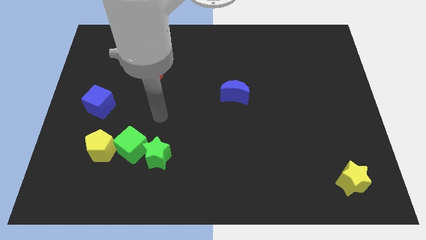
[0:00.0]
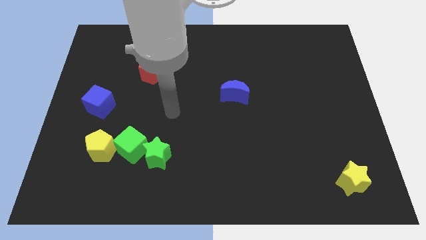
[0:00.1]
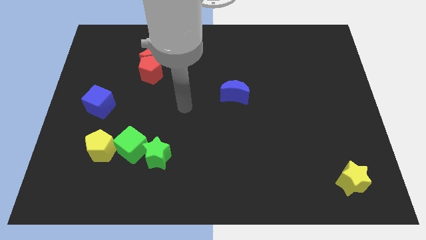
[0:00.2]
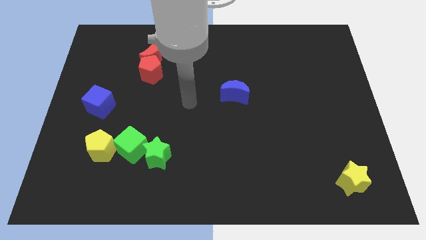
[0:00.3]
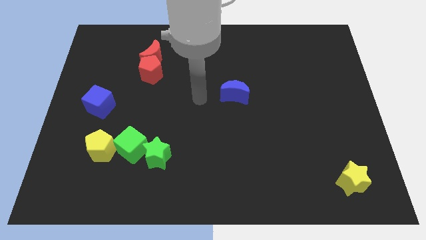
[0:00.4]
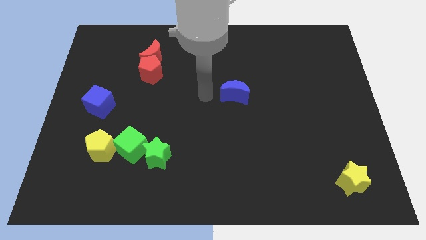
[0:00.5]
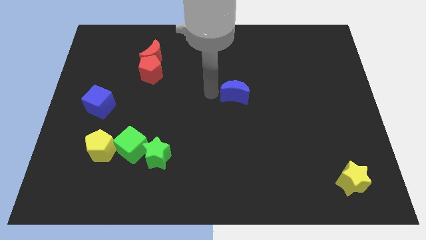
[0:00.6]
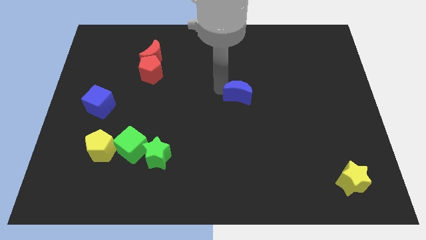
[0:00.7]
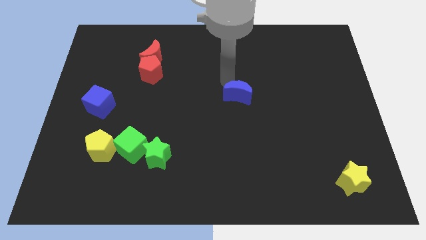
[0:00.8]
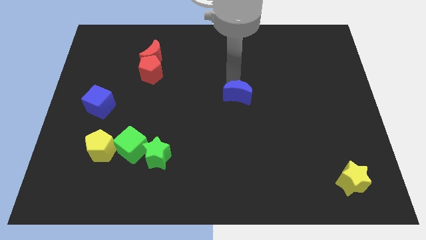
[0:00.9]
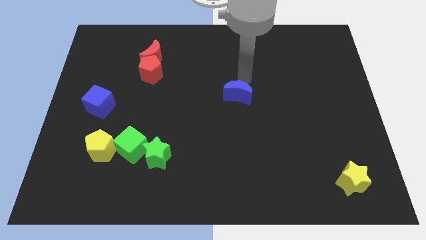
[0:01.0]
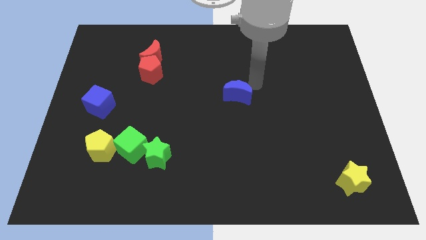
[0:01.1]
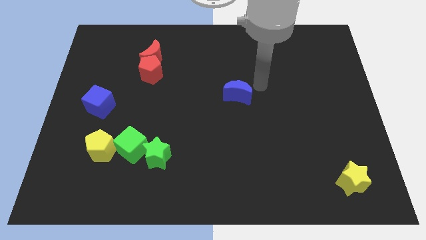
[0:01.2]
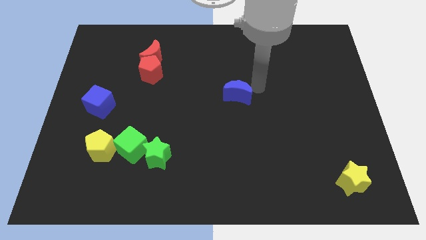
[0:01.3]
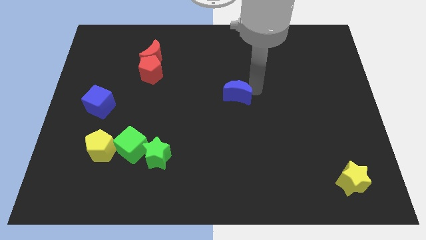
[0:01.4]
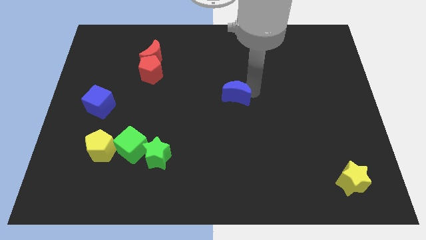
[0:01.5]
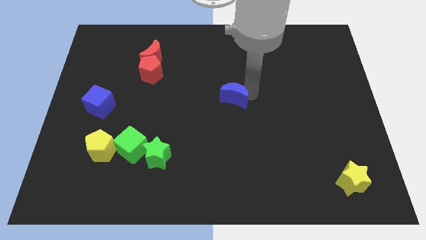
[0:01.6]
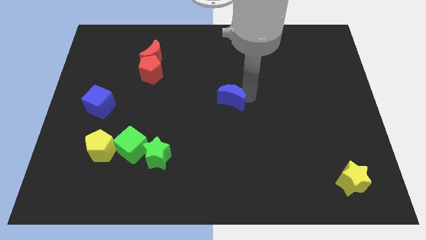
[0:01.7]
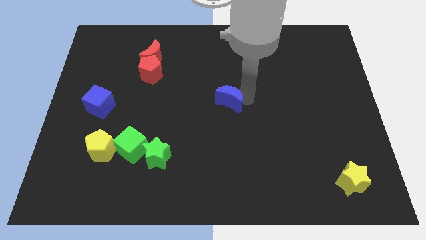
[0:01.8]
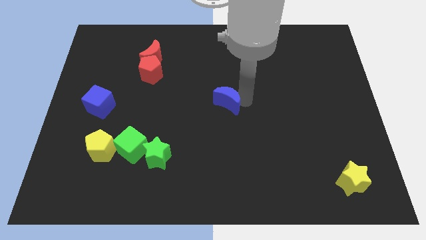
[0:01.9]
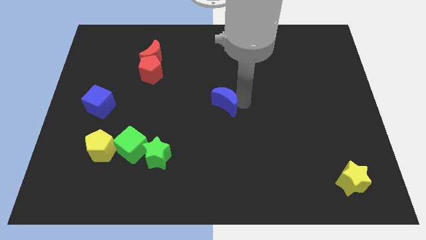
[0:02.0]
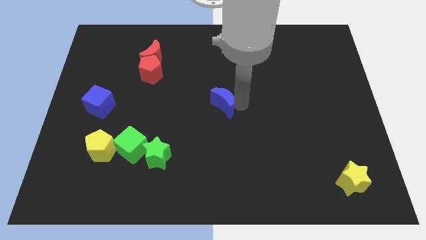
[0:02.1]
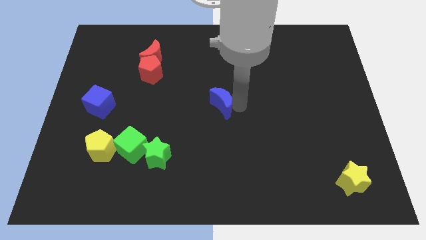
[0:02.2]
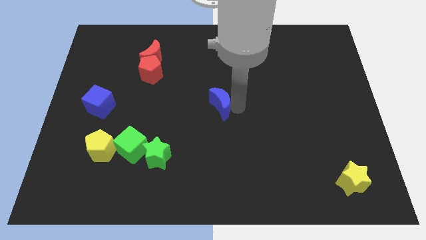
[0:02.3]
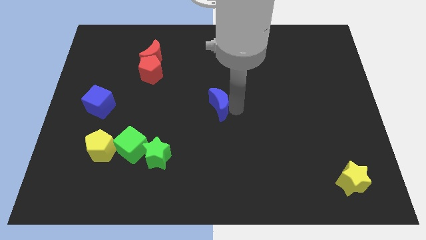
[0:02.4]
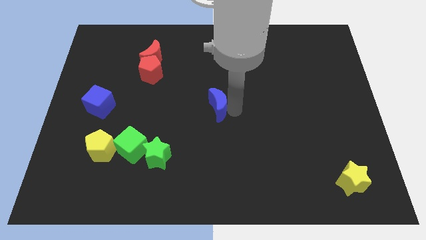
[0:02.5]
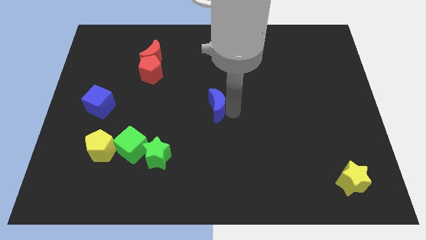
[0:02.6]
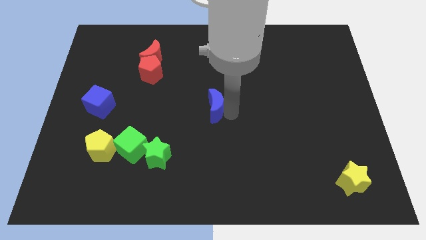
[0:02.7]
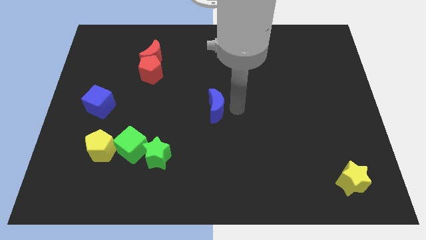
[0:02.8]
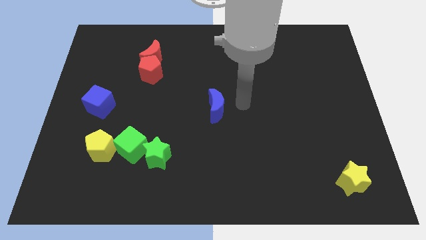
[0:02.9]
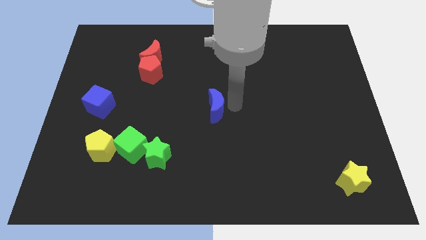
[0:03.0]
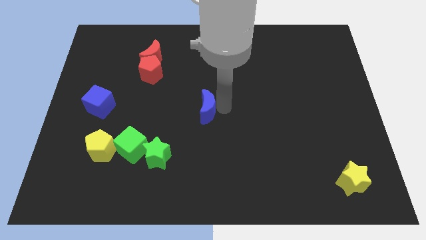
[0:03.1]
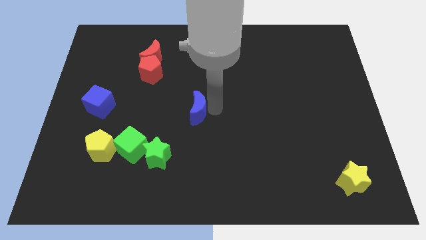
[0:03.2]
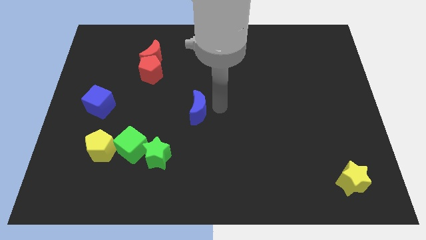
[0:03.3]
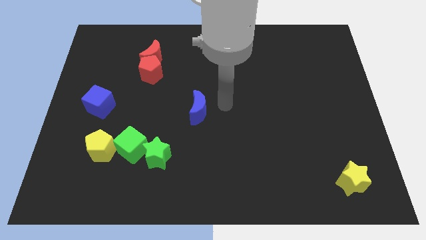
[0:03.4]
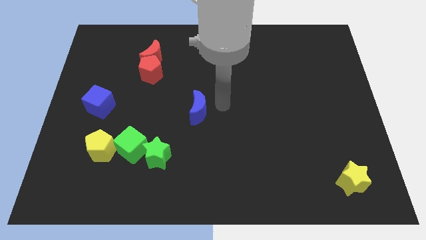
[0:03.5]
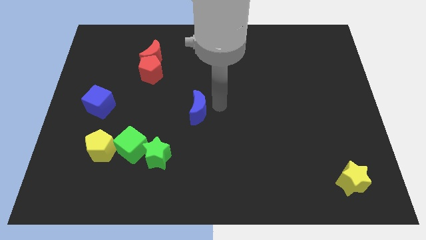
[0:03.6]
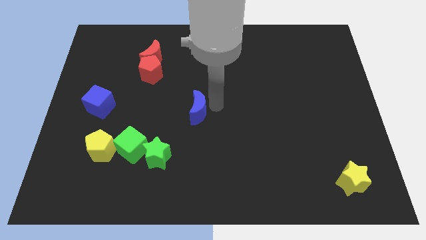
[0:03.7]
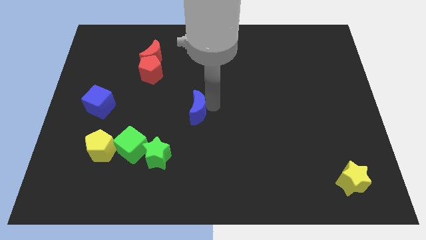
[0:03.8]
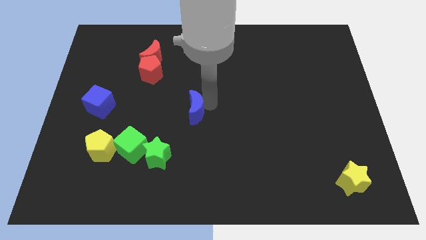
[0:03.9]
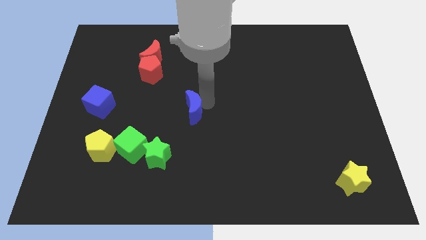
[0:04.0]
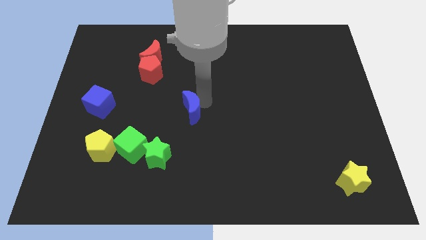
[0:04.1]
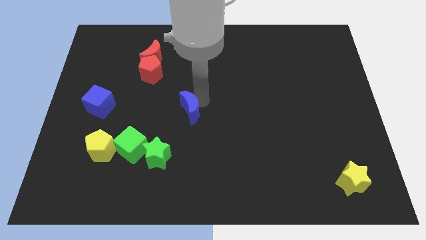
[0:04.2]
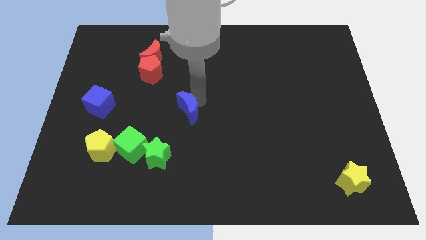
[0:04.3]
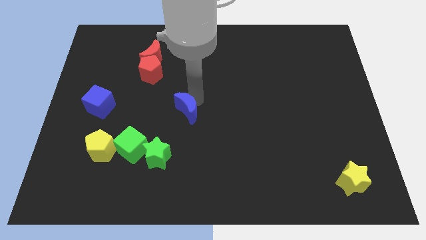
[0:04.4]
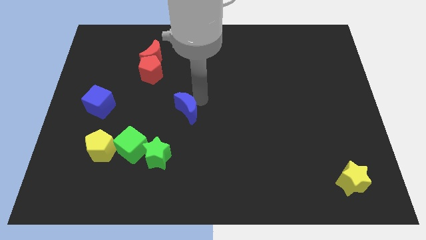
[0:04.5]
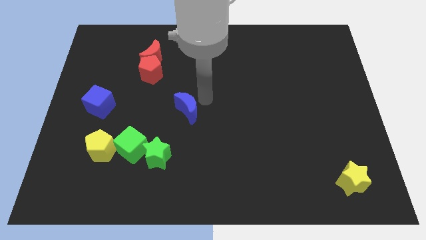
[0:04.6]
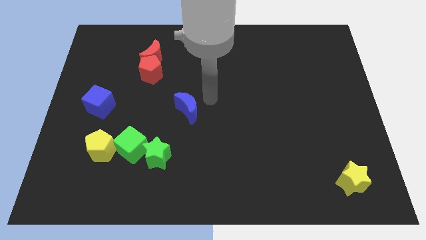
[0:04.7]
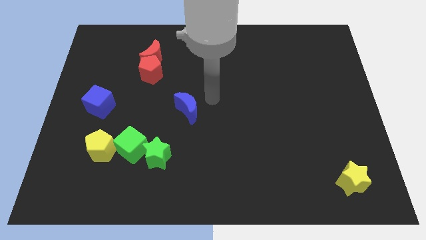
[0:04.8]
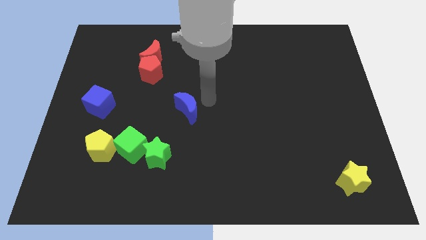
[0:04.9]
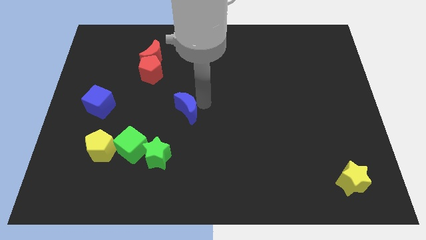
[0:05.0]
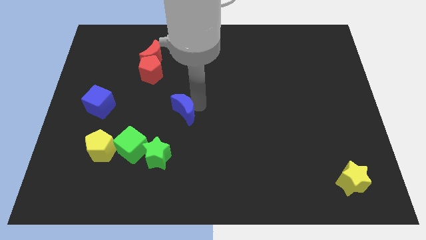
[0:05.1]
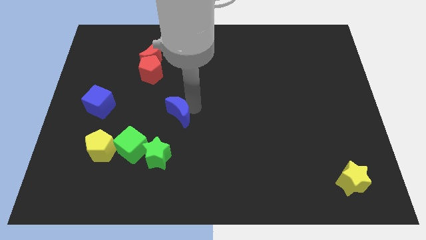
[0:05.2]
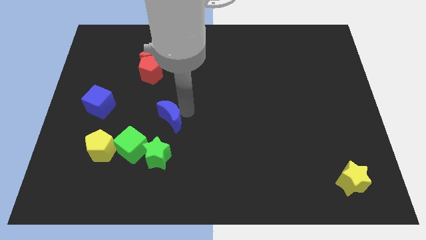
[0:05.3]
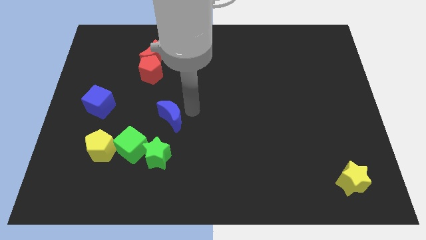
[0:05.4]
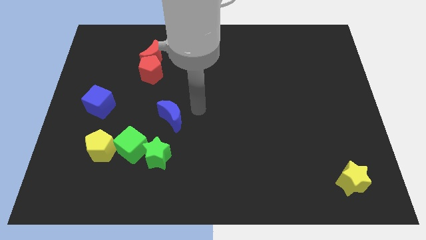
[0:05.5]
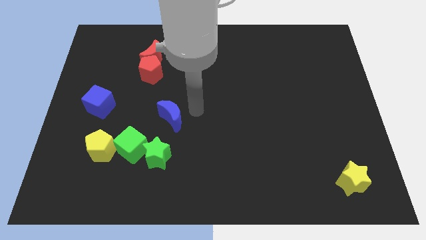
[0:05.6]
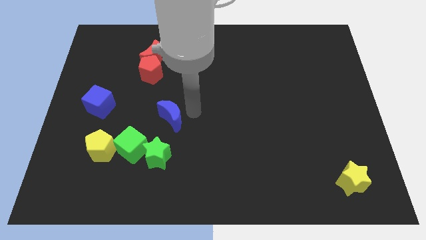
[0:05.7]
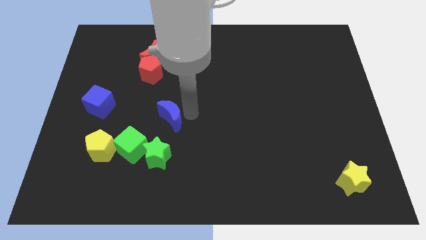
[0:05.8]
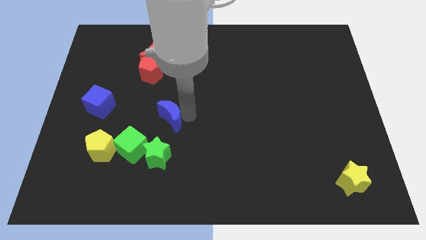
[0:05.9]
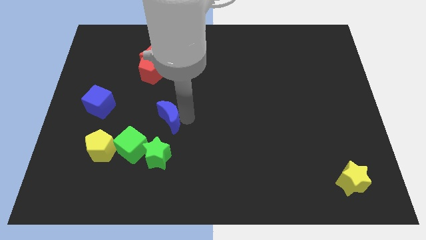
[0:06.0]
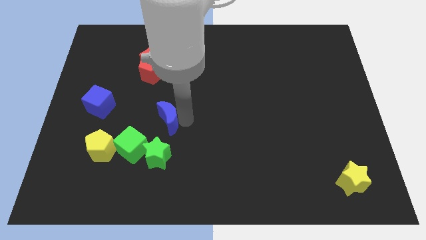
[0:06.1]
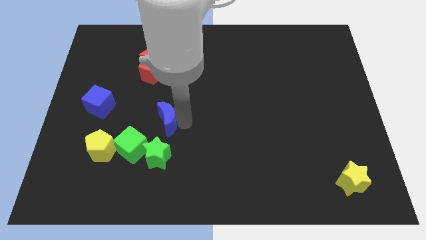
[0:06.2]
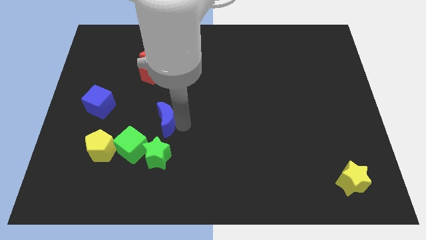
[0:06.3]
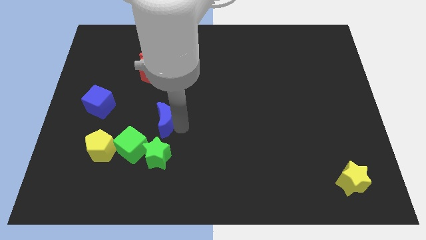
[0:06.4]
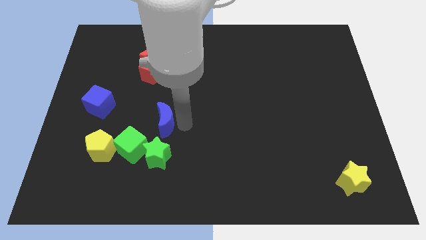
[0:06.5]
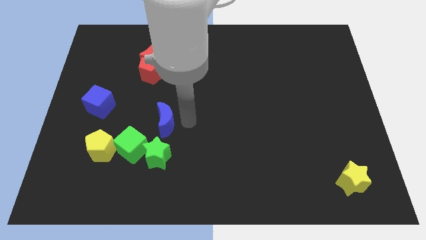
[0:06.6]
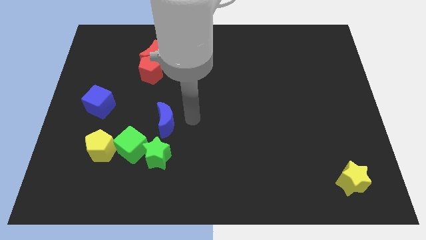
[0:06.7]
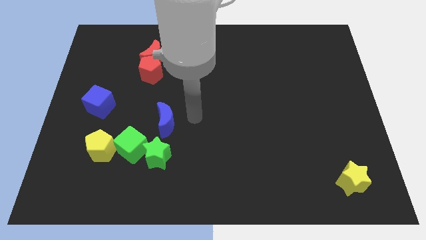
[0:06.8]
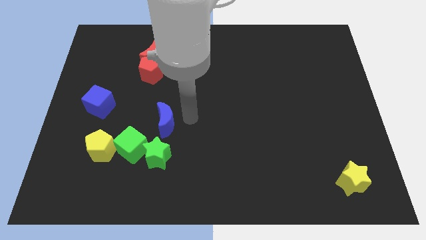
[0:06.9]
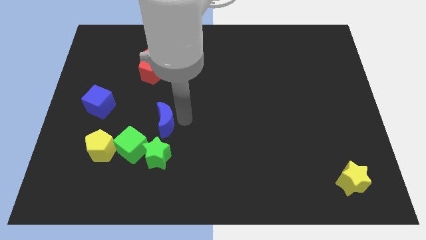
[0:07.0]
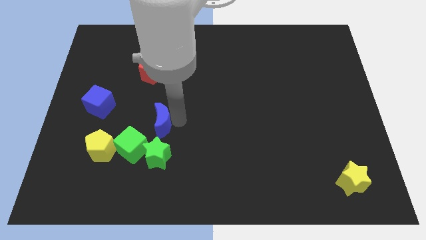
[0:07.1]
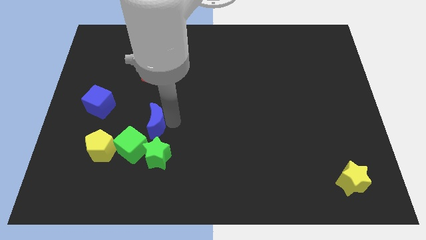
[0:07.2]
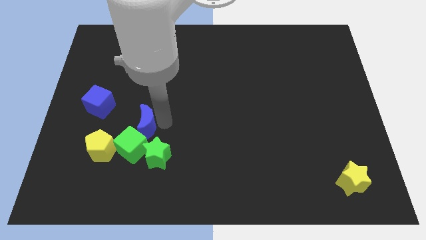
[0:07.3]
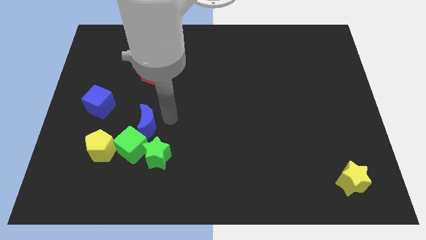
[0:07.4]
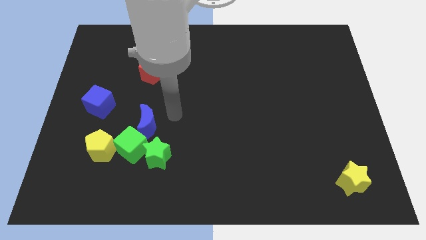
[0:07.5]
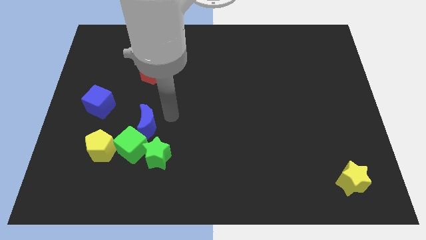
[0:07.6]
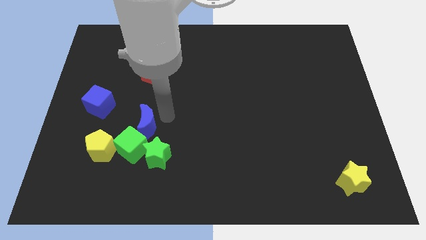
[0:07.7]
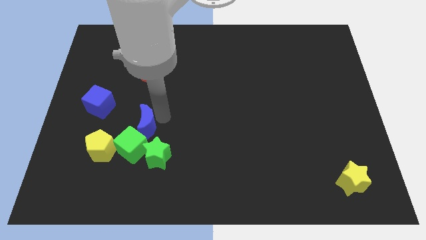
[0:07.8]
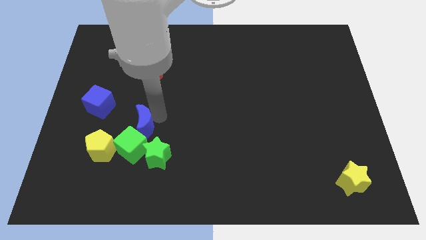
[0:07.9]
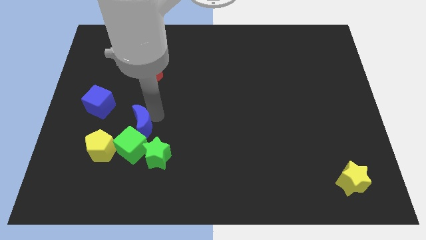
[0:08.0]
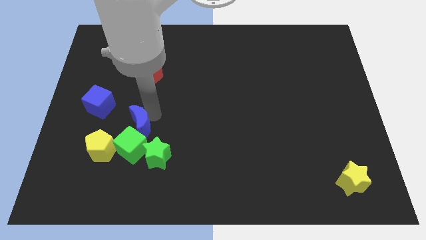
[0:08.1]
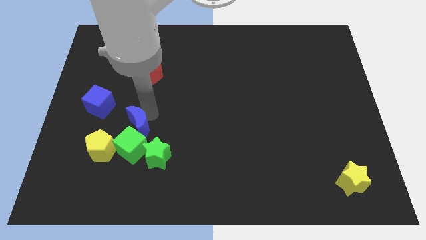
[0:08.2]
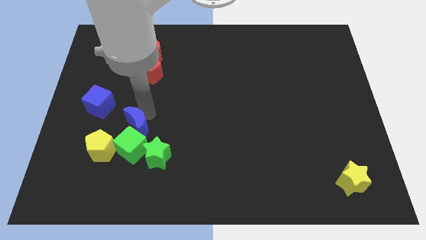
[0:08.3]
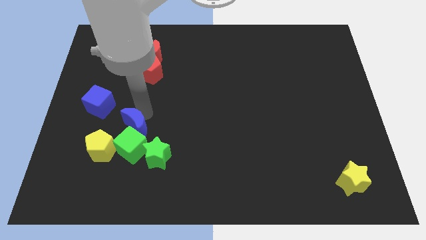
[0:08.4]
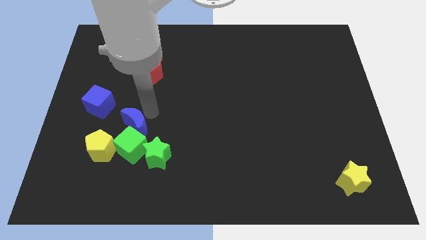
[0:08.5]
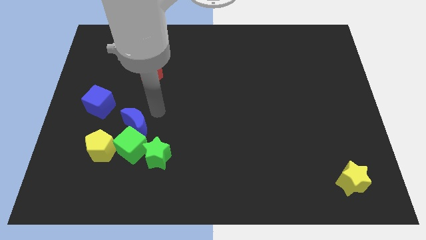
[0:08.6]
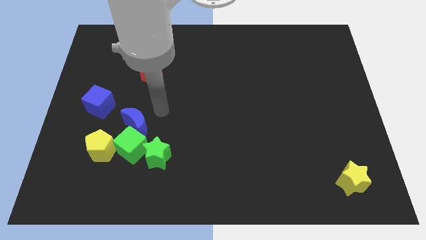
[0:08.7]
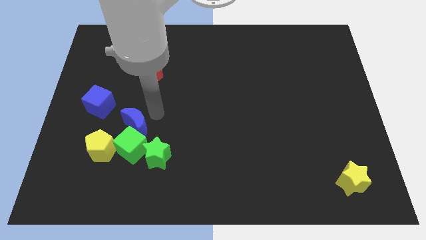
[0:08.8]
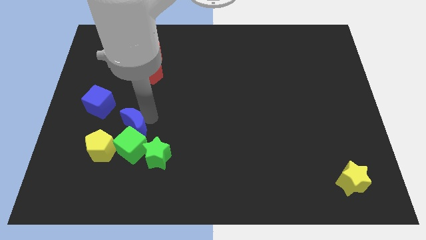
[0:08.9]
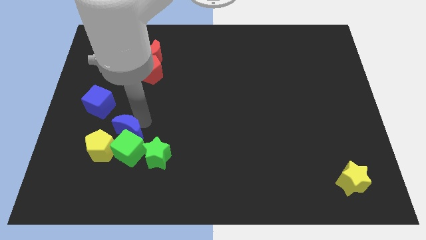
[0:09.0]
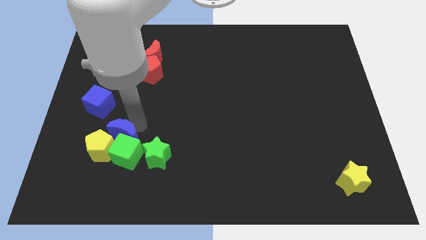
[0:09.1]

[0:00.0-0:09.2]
slide the blue moon to the yellow pentagon
